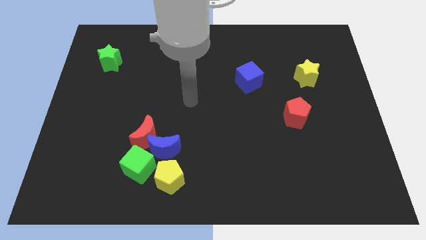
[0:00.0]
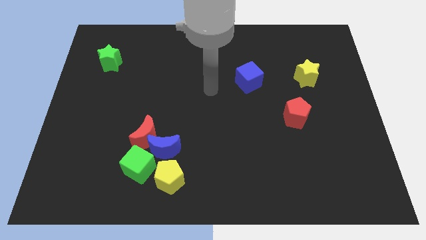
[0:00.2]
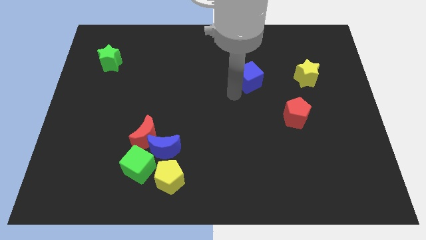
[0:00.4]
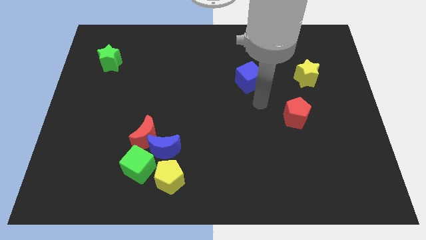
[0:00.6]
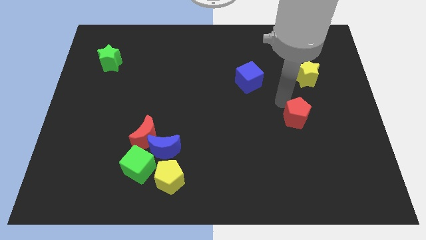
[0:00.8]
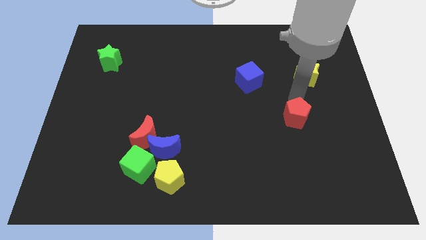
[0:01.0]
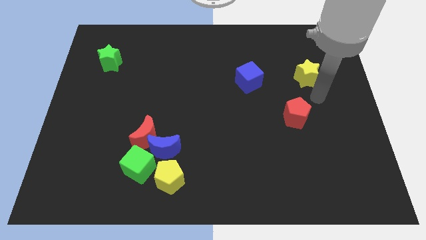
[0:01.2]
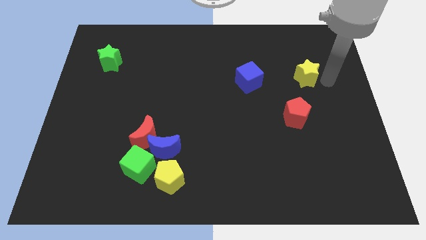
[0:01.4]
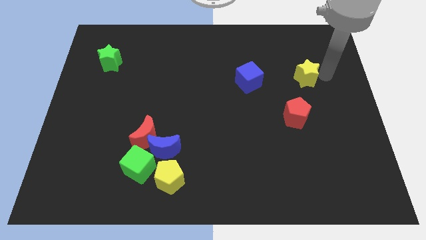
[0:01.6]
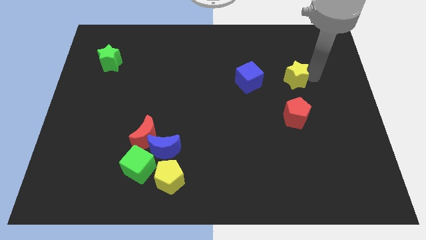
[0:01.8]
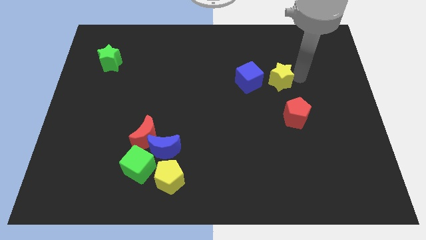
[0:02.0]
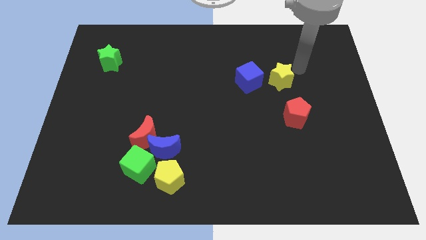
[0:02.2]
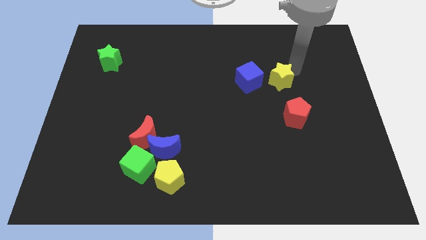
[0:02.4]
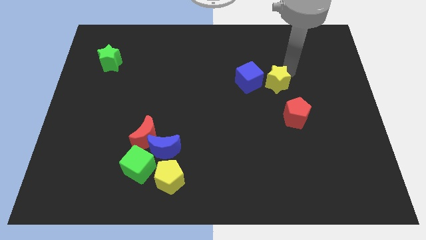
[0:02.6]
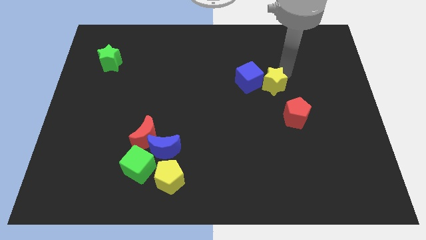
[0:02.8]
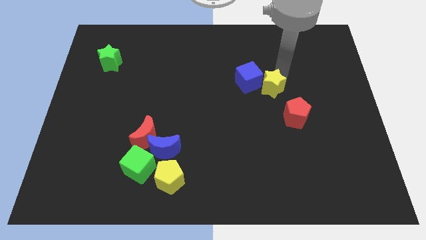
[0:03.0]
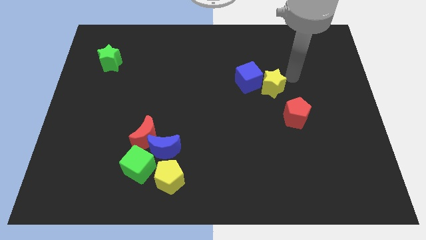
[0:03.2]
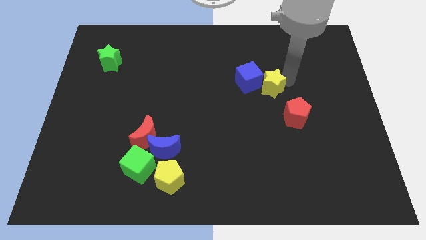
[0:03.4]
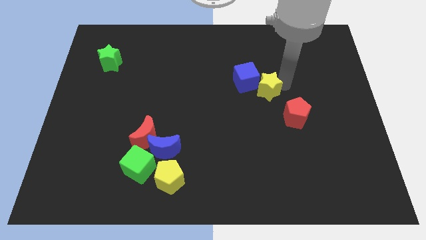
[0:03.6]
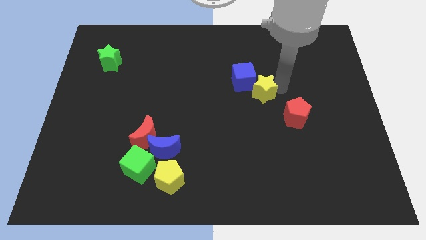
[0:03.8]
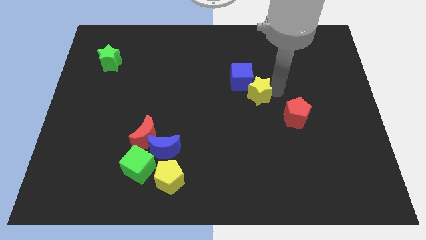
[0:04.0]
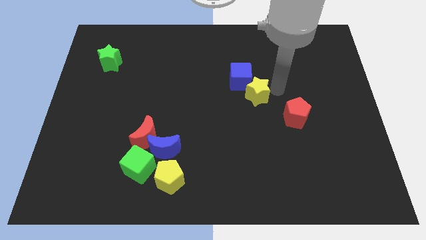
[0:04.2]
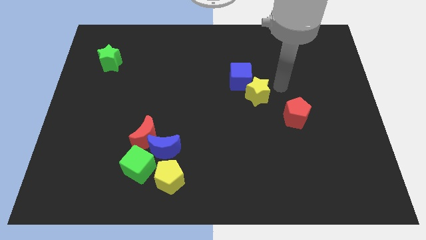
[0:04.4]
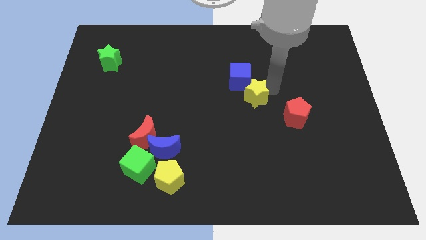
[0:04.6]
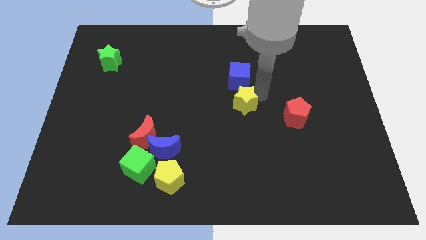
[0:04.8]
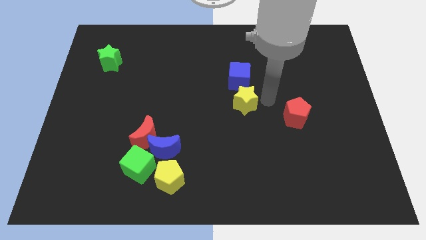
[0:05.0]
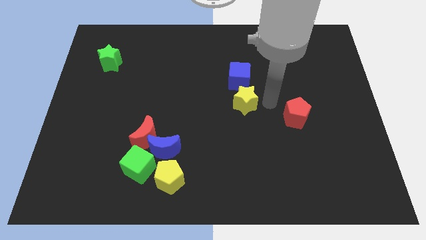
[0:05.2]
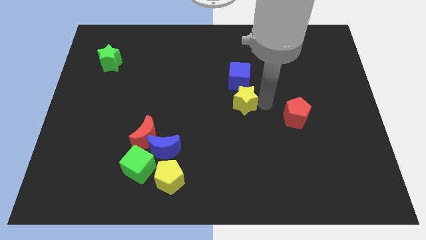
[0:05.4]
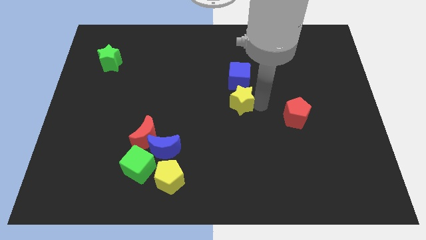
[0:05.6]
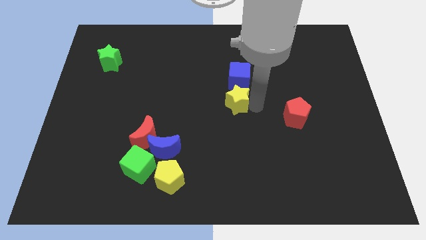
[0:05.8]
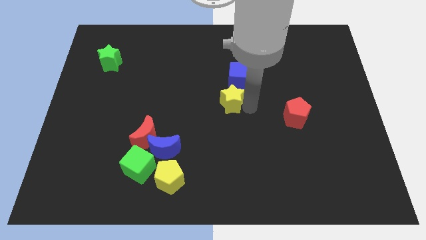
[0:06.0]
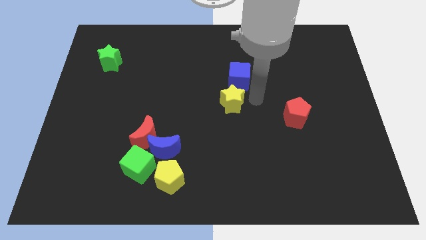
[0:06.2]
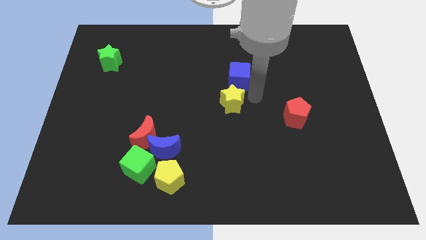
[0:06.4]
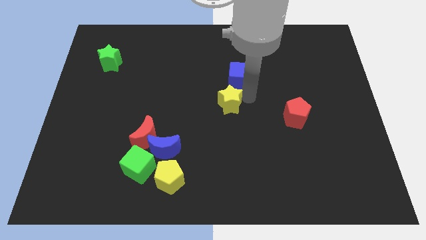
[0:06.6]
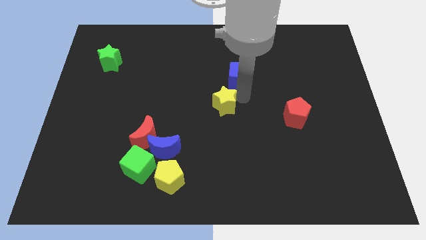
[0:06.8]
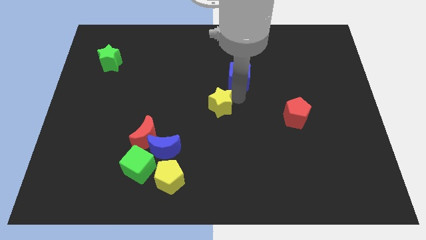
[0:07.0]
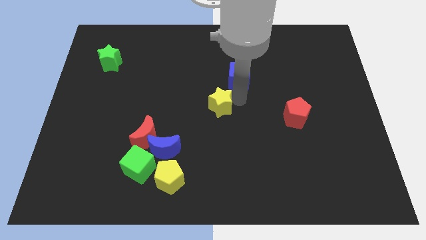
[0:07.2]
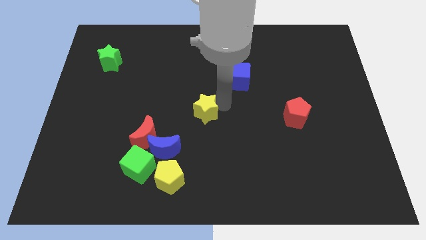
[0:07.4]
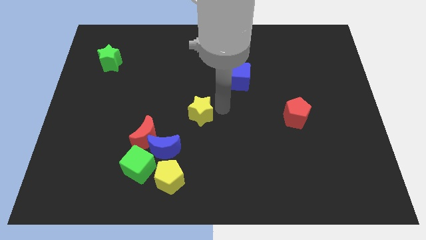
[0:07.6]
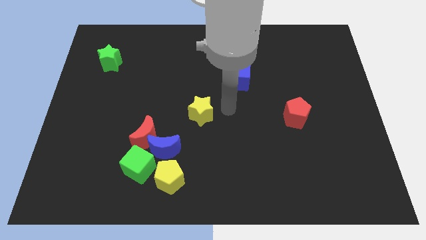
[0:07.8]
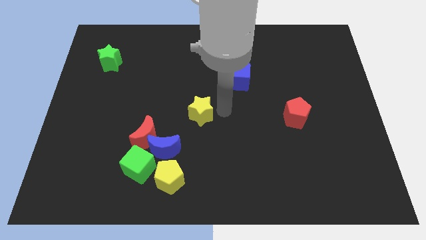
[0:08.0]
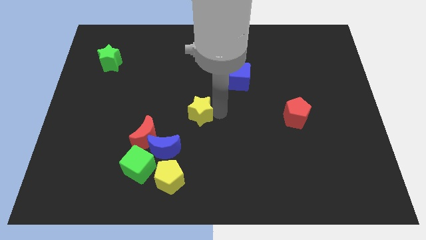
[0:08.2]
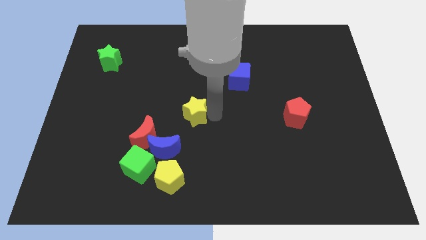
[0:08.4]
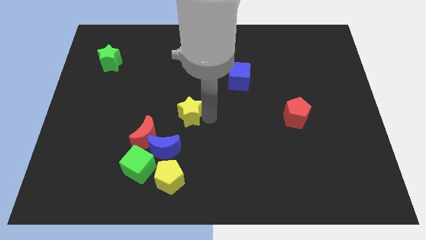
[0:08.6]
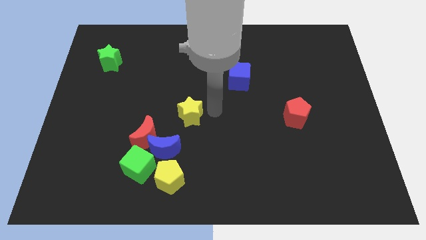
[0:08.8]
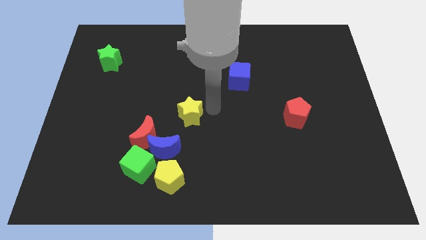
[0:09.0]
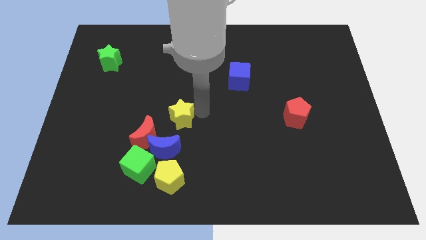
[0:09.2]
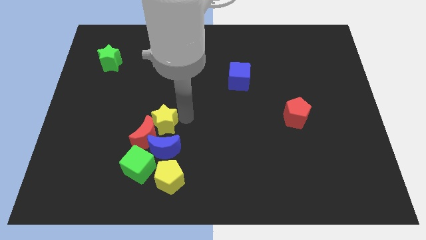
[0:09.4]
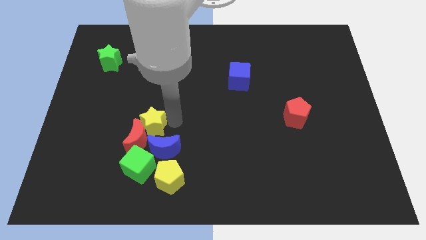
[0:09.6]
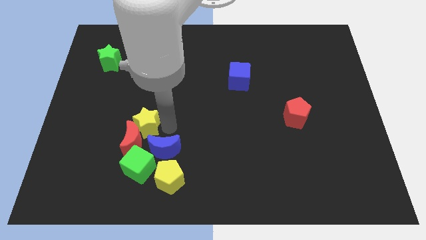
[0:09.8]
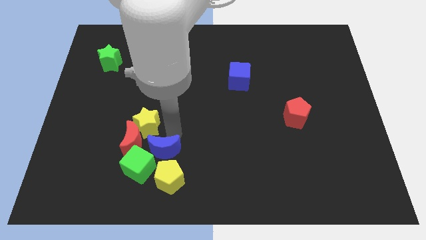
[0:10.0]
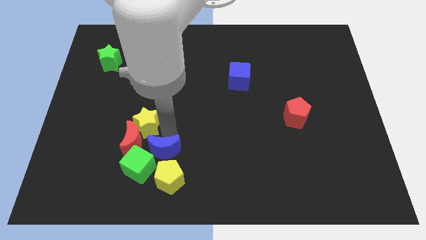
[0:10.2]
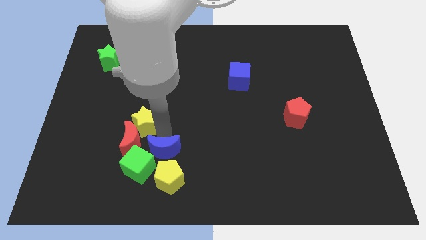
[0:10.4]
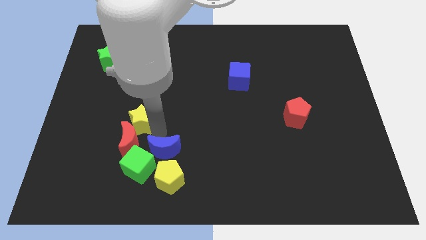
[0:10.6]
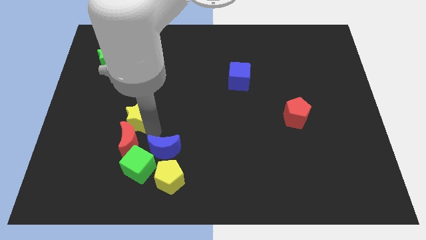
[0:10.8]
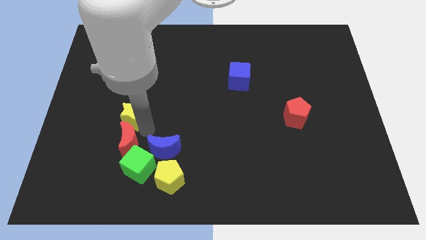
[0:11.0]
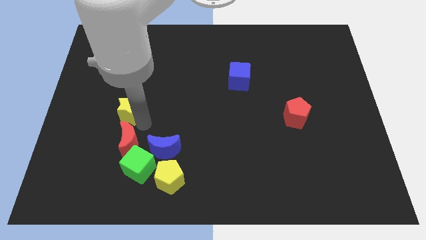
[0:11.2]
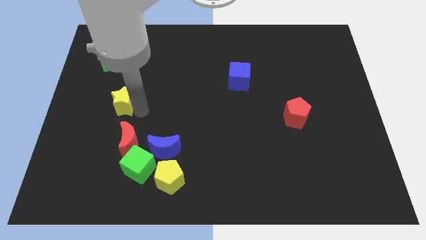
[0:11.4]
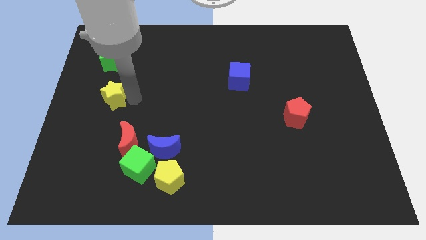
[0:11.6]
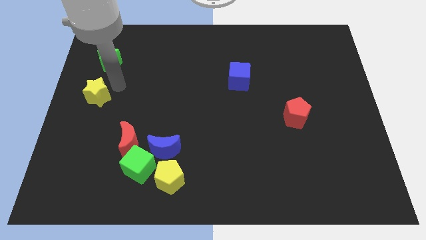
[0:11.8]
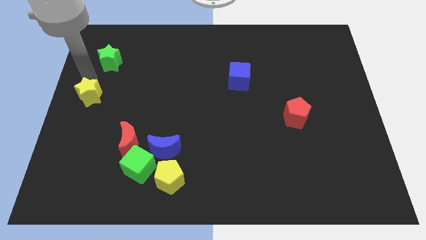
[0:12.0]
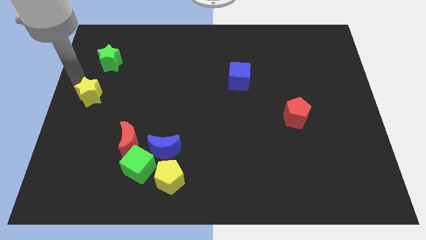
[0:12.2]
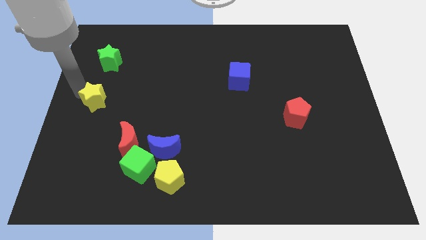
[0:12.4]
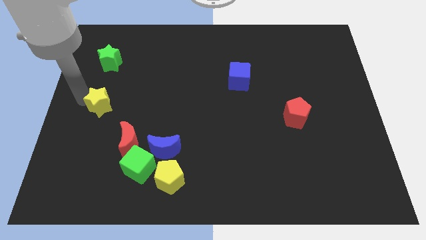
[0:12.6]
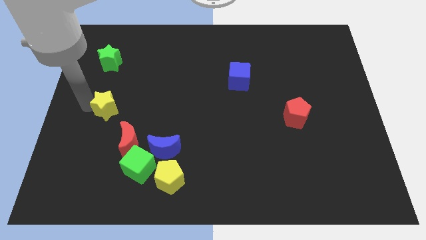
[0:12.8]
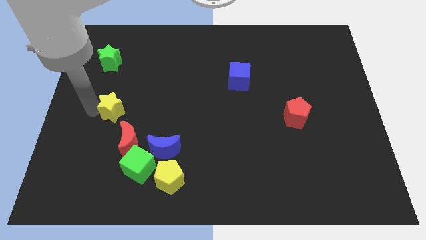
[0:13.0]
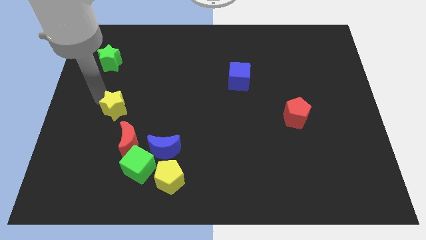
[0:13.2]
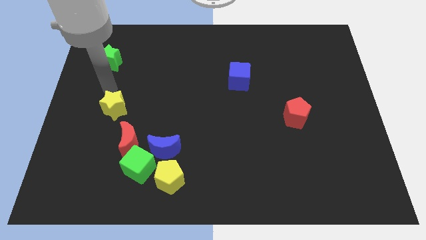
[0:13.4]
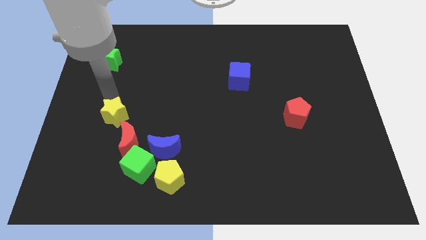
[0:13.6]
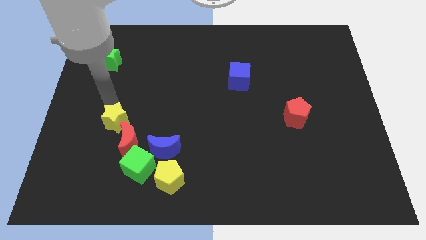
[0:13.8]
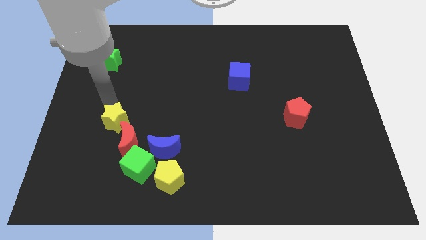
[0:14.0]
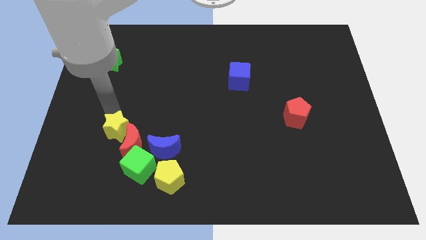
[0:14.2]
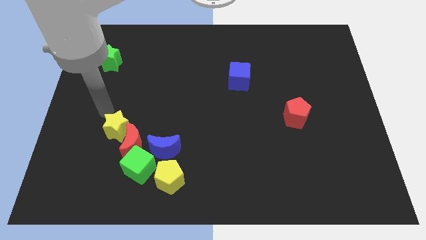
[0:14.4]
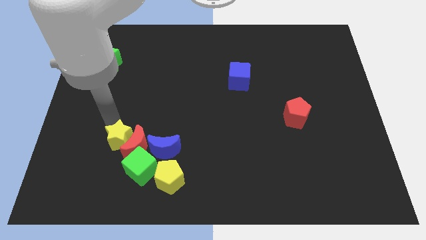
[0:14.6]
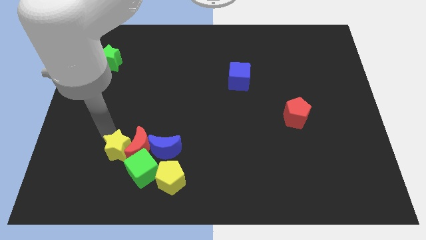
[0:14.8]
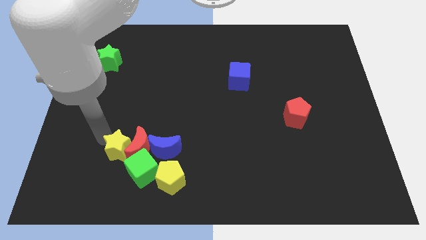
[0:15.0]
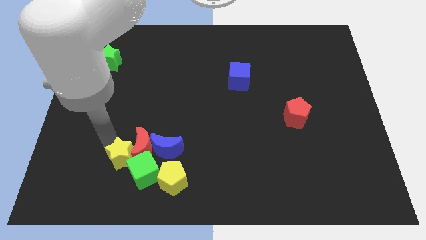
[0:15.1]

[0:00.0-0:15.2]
slide the yellow star to the green cube

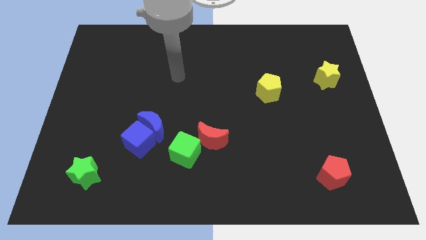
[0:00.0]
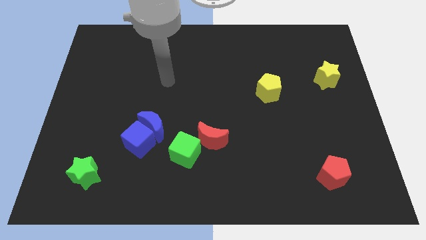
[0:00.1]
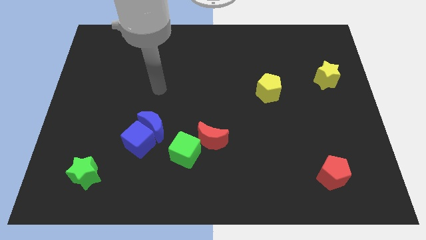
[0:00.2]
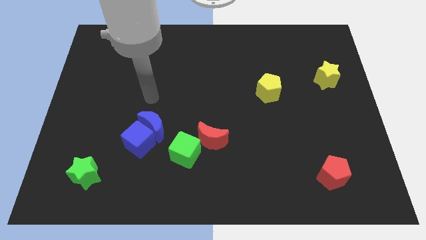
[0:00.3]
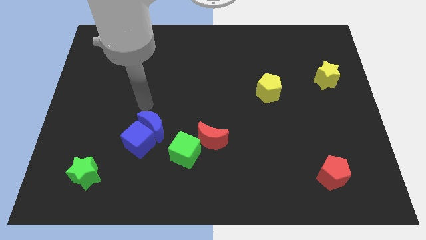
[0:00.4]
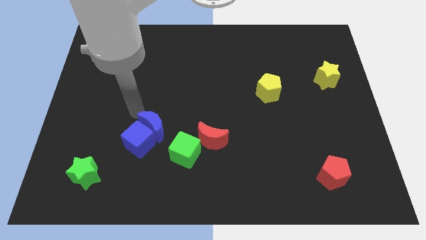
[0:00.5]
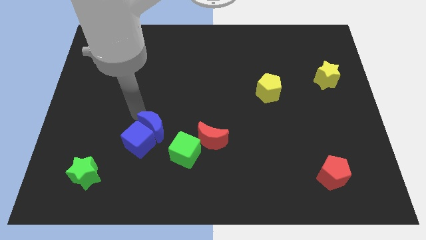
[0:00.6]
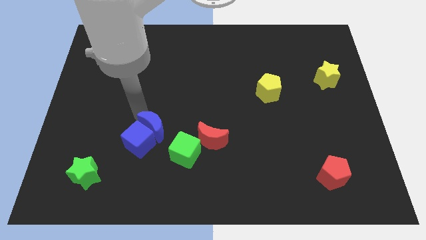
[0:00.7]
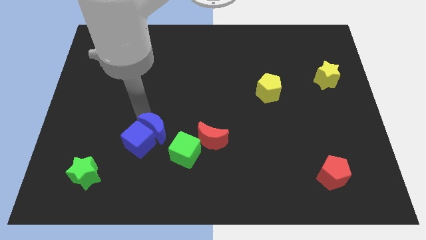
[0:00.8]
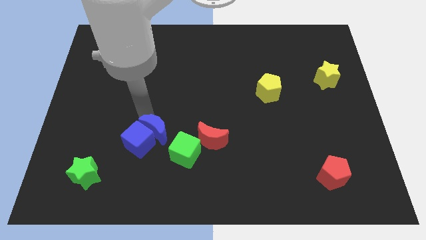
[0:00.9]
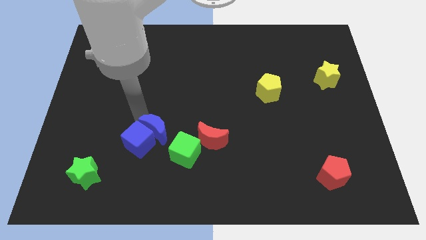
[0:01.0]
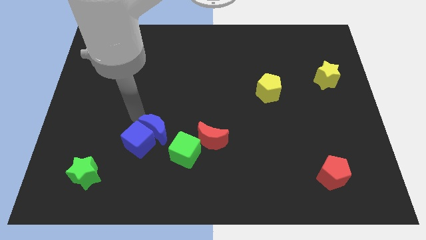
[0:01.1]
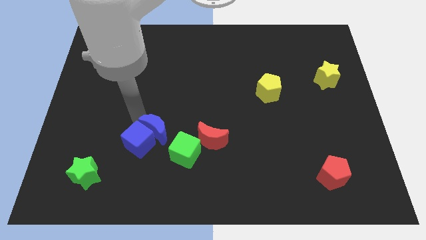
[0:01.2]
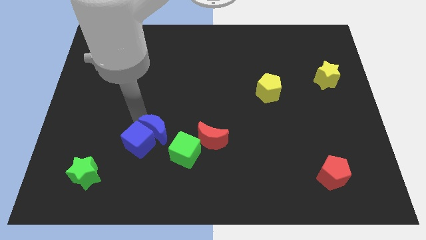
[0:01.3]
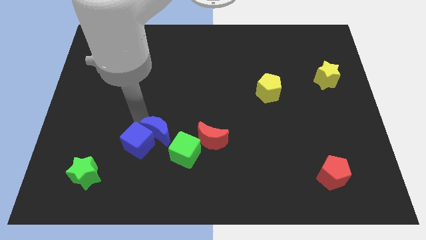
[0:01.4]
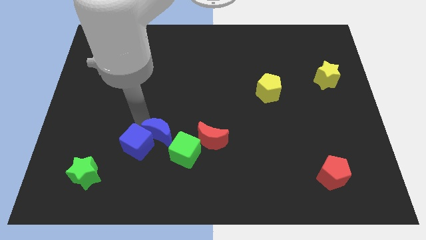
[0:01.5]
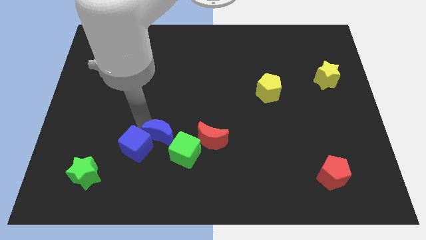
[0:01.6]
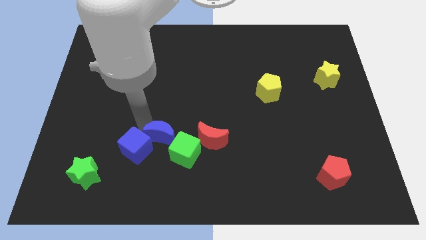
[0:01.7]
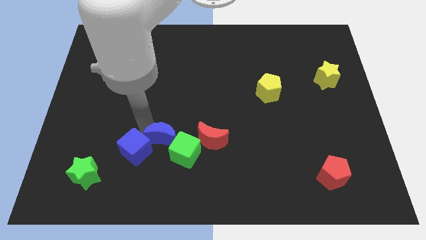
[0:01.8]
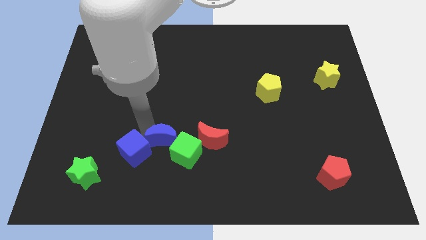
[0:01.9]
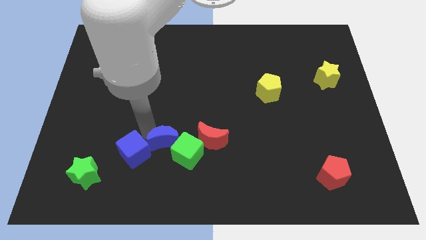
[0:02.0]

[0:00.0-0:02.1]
slide the blue moon towards the green cube
